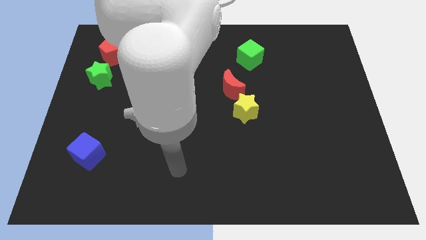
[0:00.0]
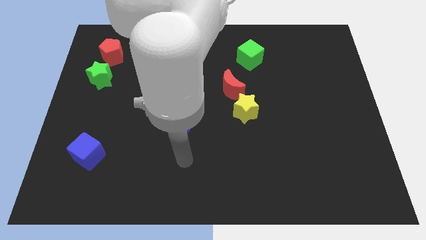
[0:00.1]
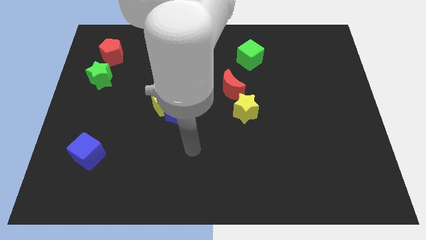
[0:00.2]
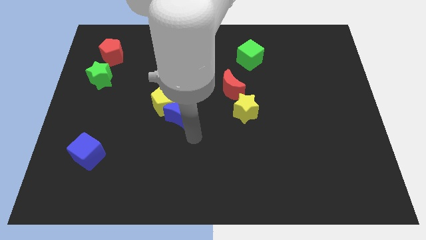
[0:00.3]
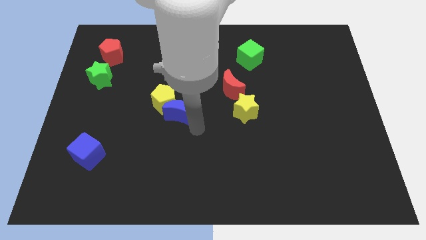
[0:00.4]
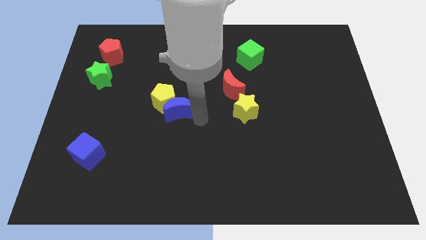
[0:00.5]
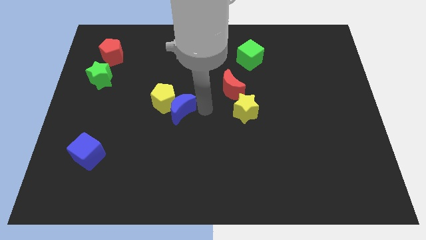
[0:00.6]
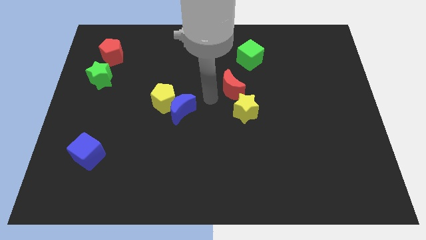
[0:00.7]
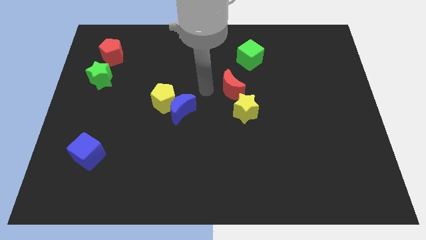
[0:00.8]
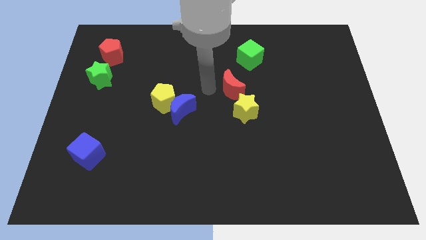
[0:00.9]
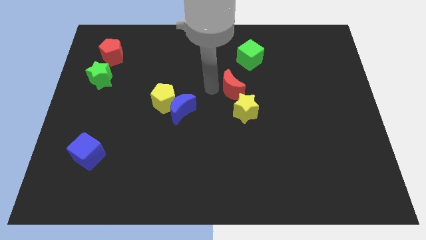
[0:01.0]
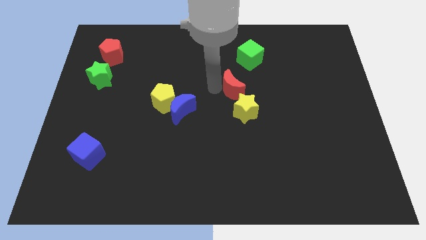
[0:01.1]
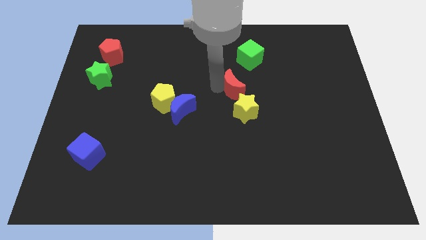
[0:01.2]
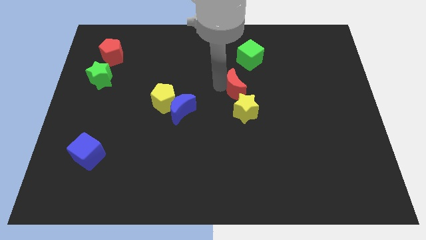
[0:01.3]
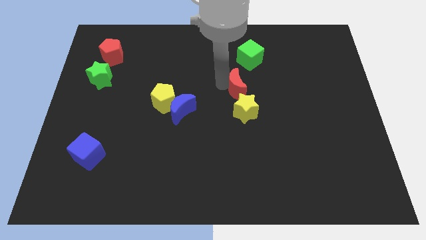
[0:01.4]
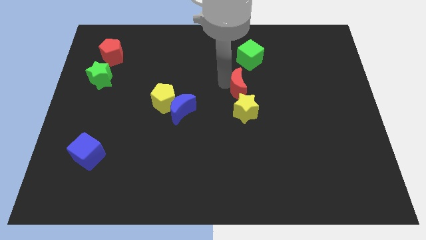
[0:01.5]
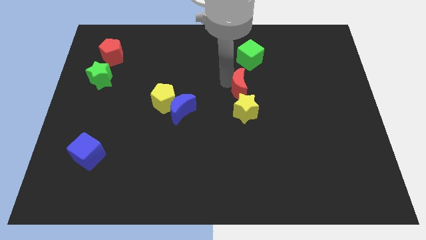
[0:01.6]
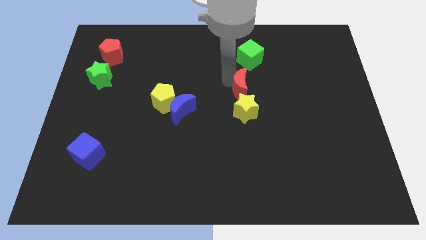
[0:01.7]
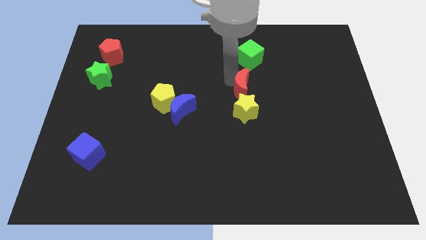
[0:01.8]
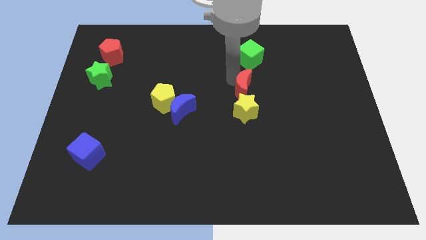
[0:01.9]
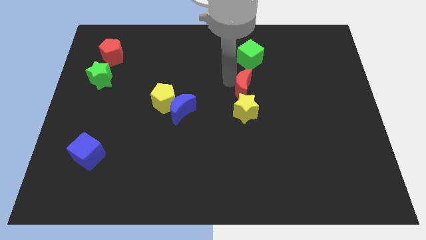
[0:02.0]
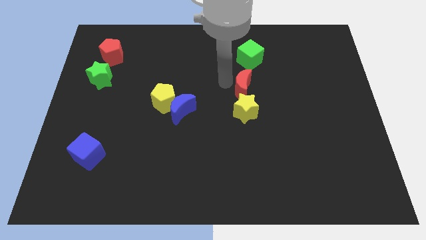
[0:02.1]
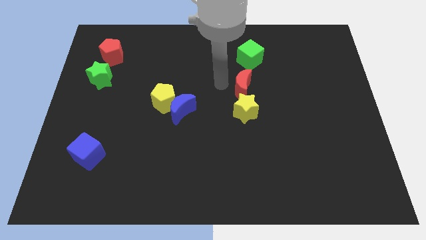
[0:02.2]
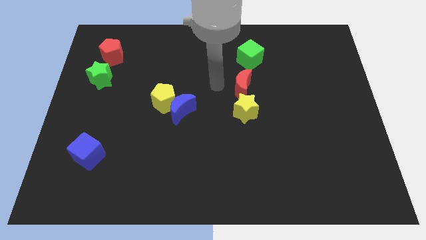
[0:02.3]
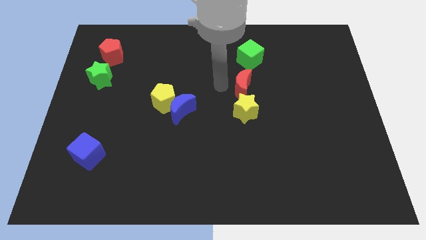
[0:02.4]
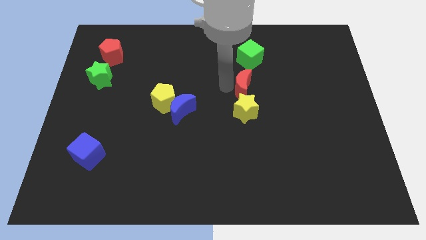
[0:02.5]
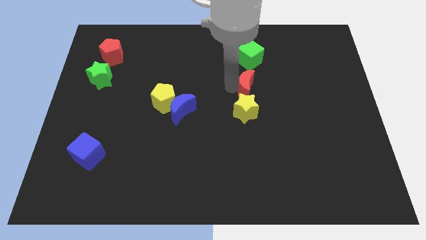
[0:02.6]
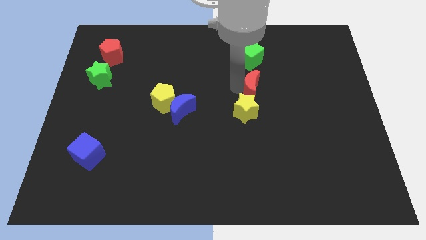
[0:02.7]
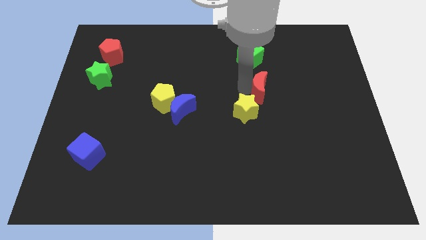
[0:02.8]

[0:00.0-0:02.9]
slightly move the red moon to the right

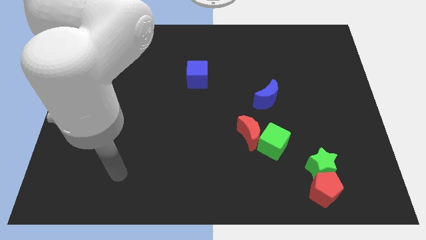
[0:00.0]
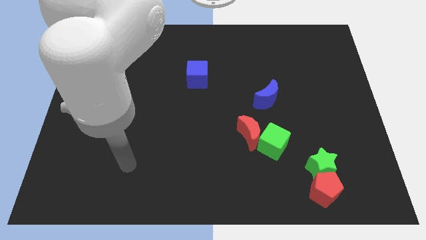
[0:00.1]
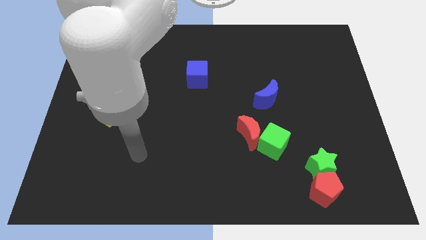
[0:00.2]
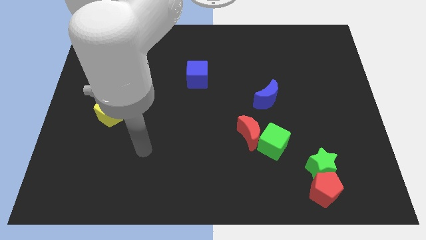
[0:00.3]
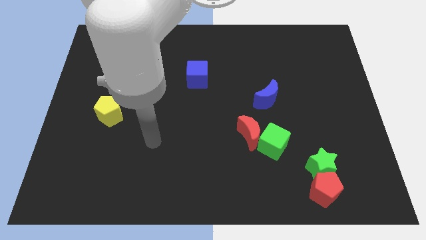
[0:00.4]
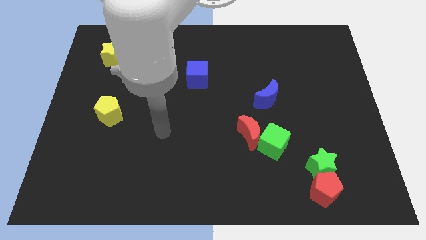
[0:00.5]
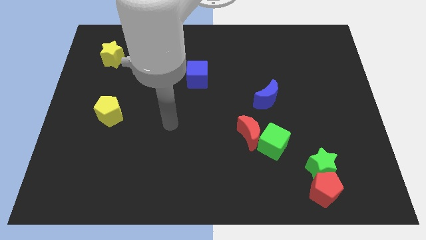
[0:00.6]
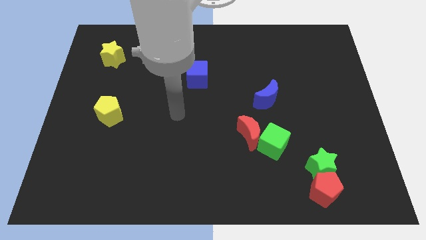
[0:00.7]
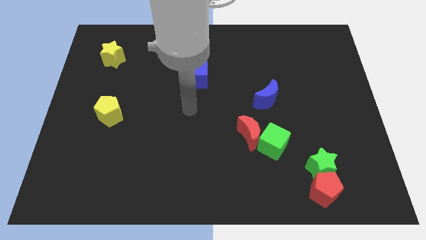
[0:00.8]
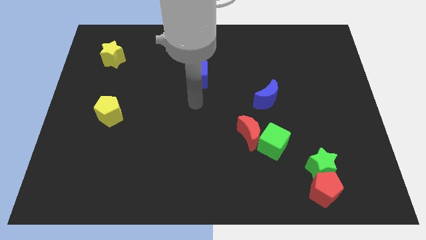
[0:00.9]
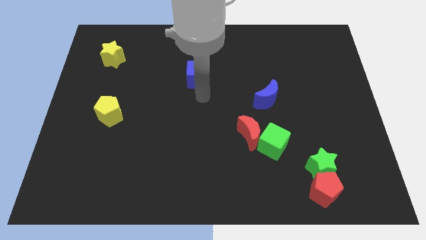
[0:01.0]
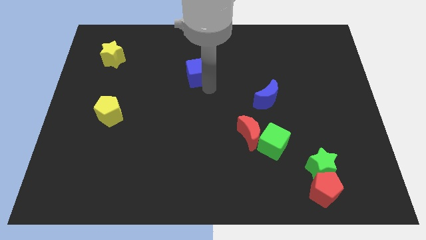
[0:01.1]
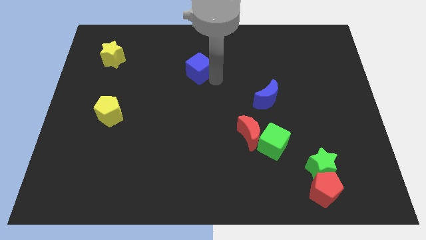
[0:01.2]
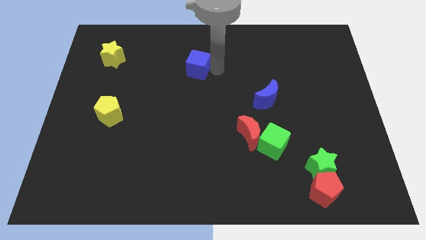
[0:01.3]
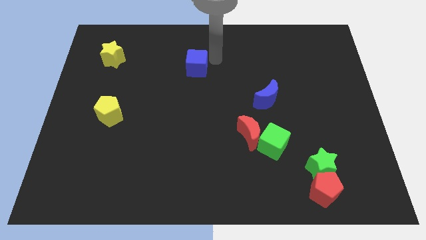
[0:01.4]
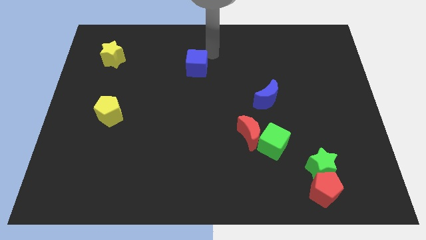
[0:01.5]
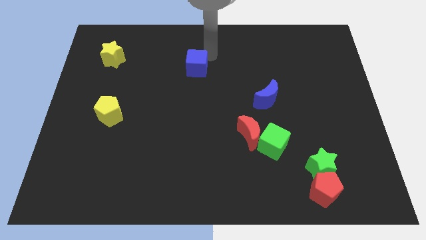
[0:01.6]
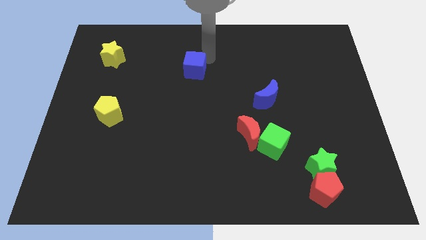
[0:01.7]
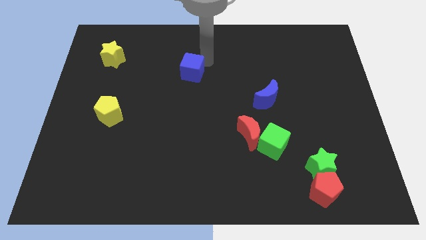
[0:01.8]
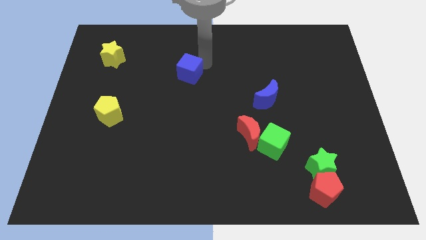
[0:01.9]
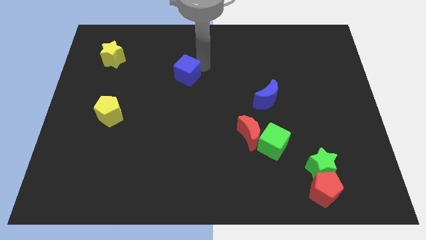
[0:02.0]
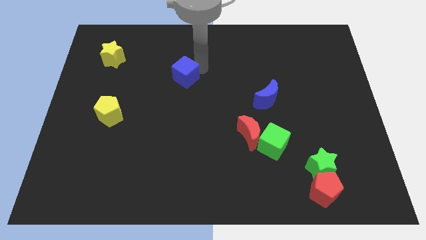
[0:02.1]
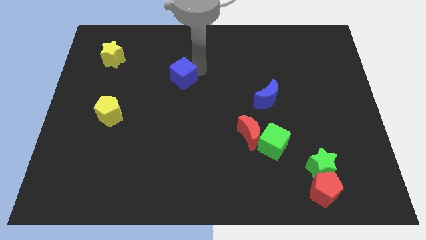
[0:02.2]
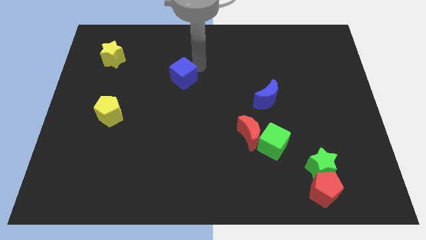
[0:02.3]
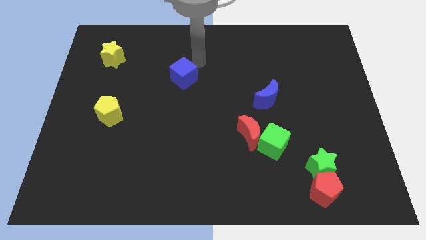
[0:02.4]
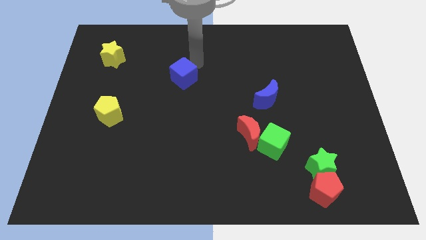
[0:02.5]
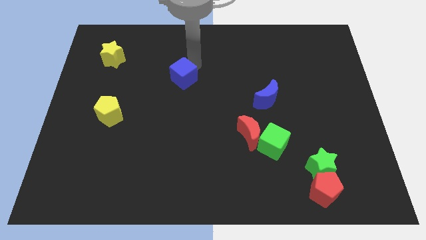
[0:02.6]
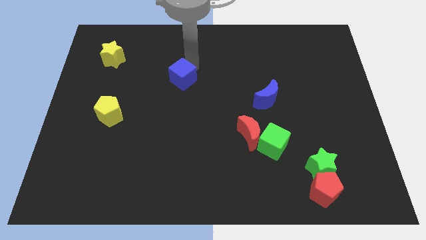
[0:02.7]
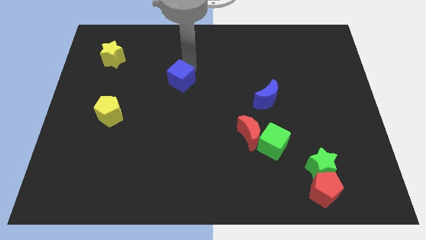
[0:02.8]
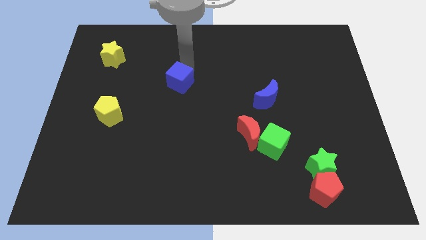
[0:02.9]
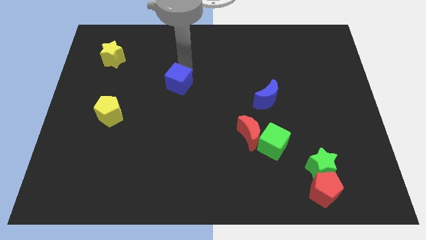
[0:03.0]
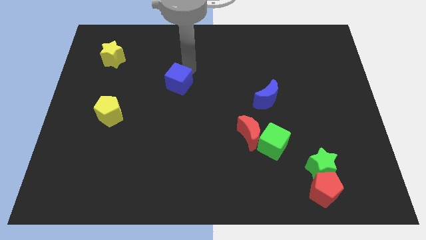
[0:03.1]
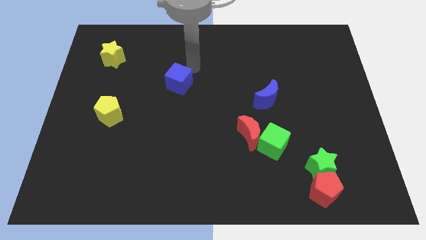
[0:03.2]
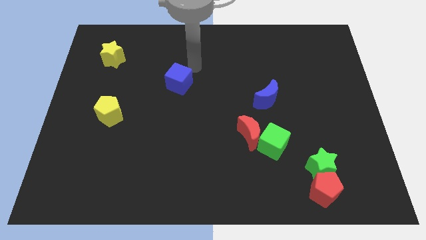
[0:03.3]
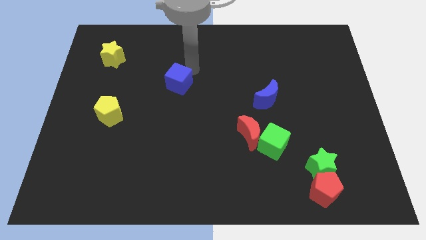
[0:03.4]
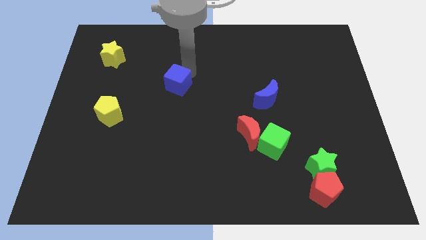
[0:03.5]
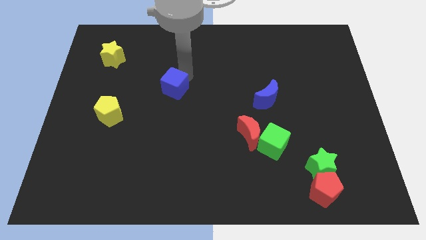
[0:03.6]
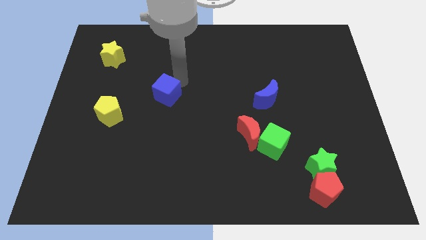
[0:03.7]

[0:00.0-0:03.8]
move the blue cube down and to the left diagonally a little

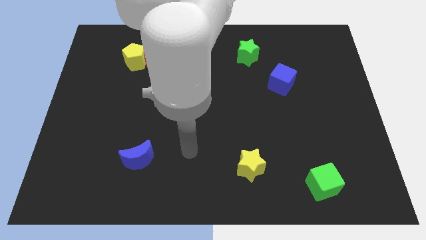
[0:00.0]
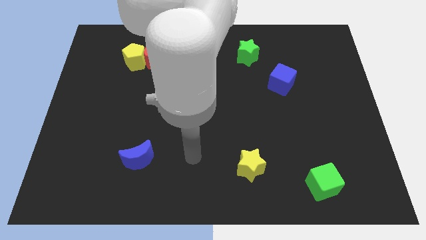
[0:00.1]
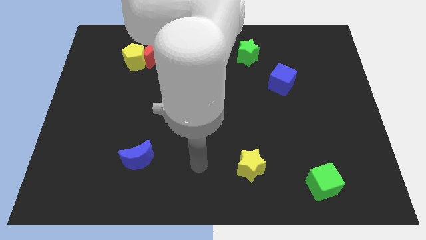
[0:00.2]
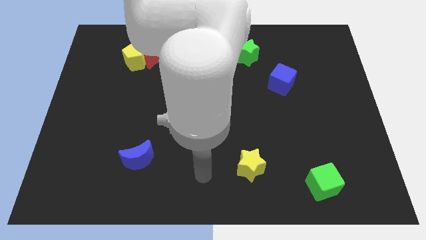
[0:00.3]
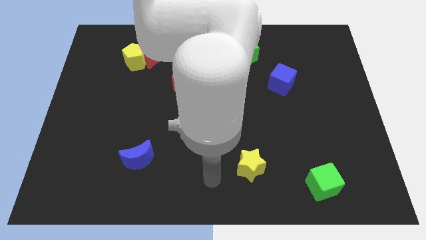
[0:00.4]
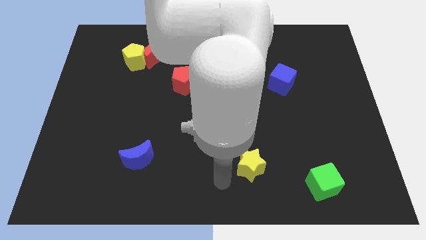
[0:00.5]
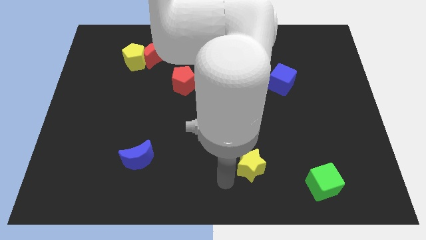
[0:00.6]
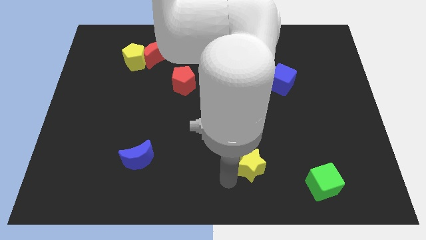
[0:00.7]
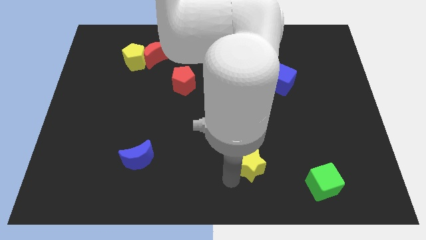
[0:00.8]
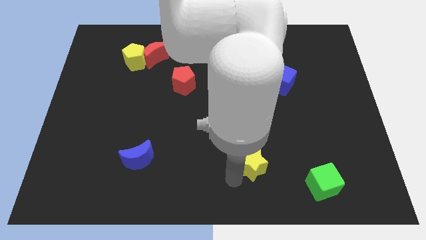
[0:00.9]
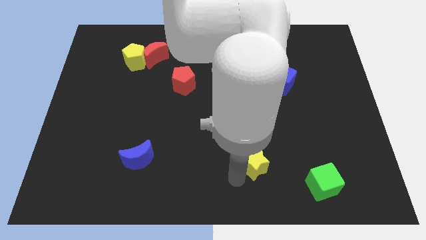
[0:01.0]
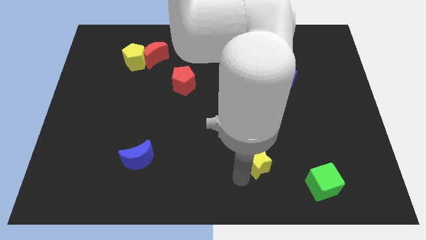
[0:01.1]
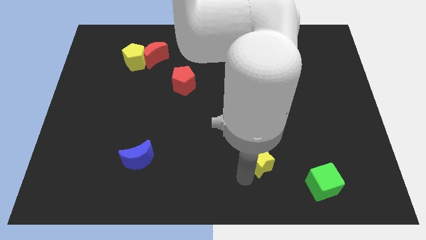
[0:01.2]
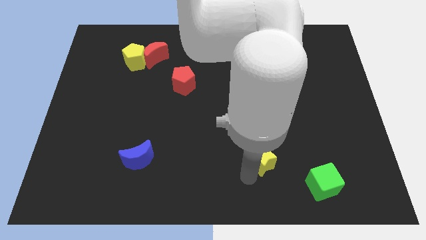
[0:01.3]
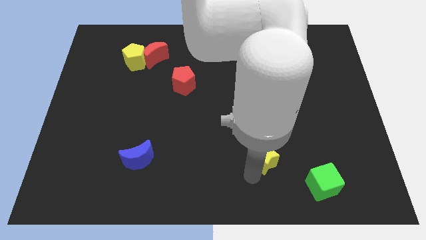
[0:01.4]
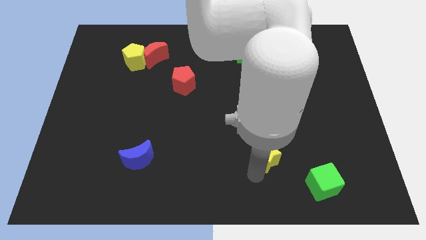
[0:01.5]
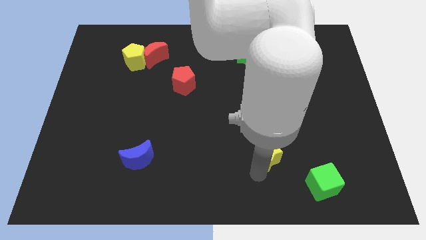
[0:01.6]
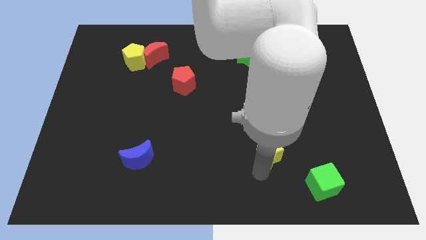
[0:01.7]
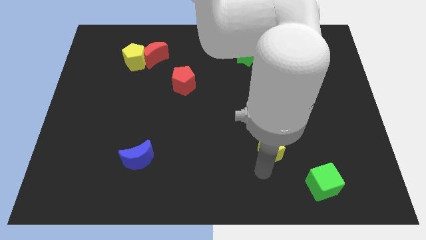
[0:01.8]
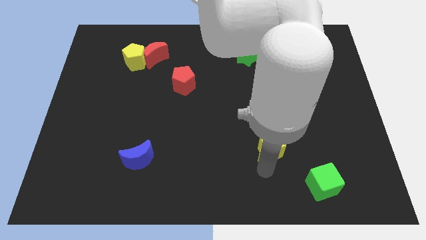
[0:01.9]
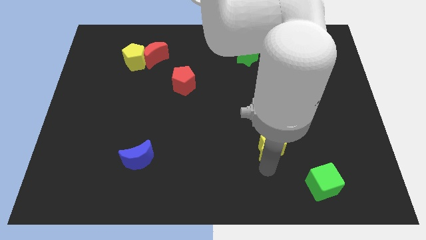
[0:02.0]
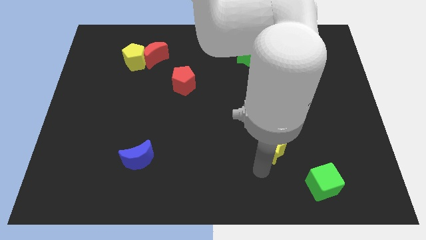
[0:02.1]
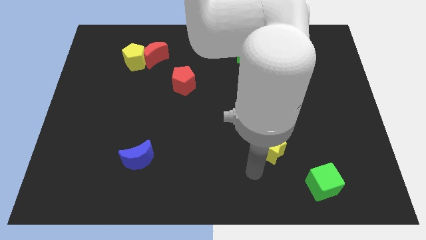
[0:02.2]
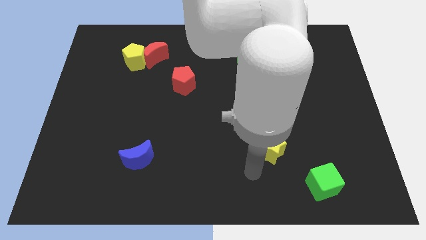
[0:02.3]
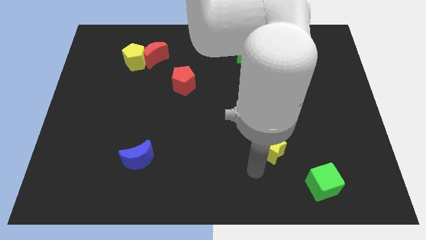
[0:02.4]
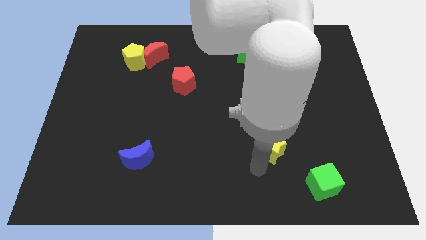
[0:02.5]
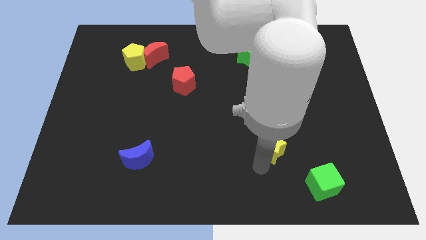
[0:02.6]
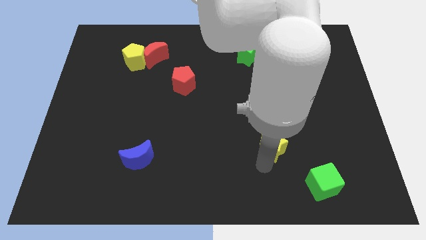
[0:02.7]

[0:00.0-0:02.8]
slightly push the yellow star up and to the right diagonally
